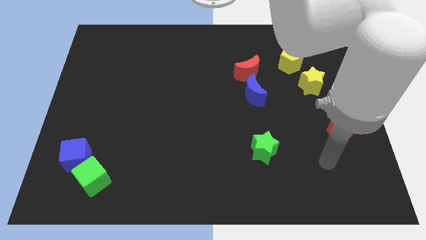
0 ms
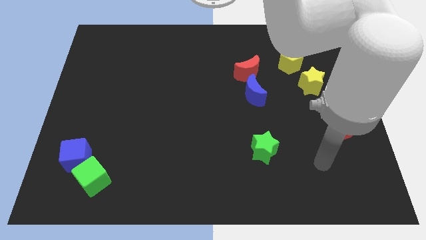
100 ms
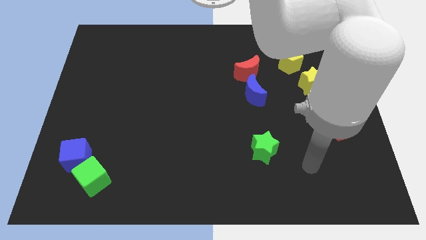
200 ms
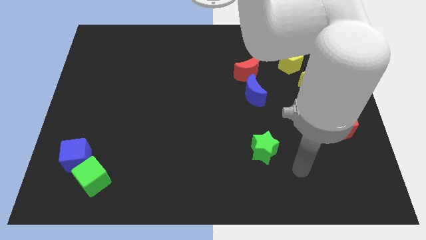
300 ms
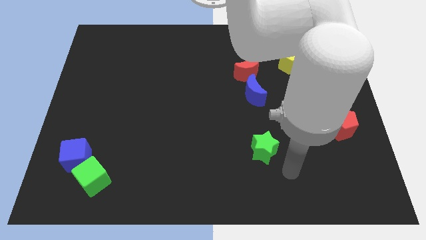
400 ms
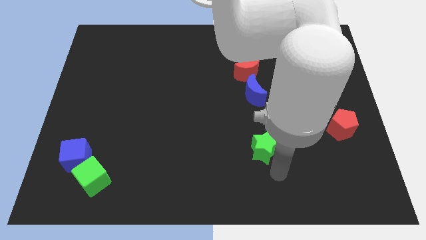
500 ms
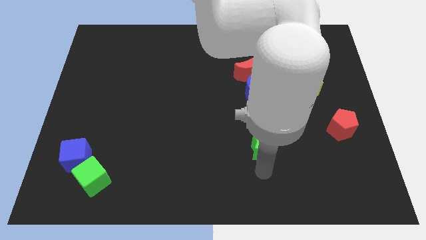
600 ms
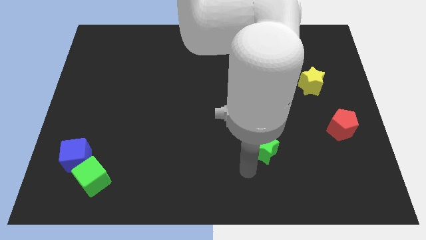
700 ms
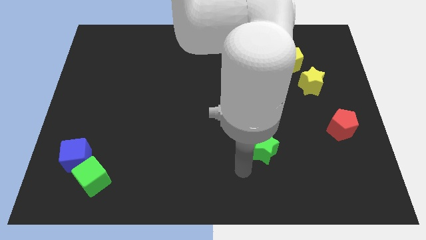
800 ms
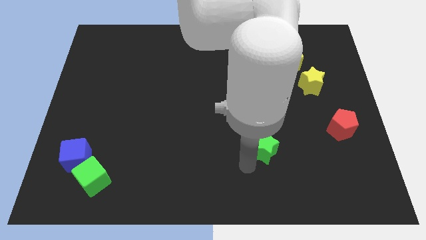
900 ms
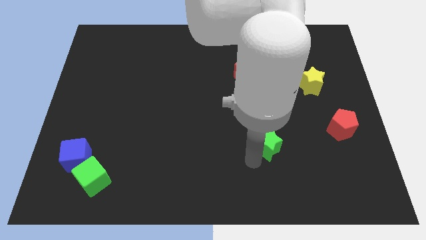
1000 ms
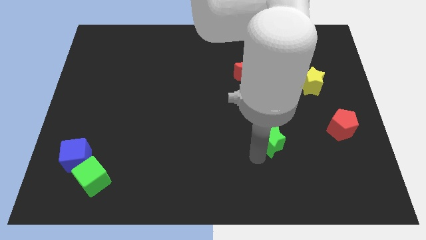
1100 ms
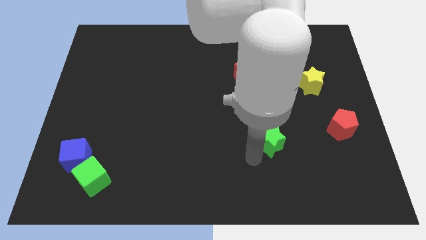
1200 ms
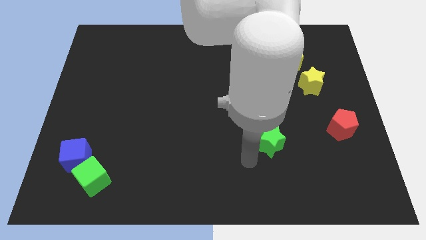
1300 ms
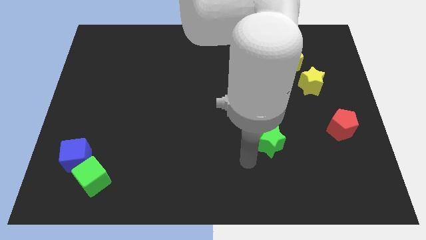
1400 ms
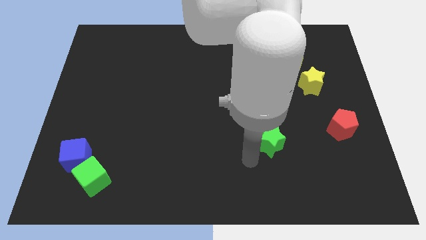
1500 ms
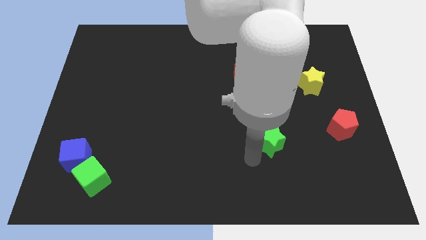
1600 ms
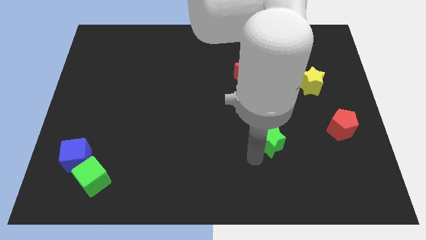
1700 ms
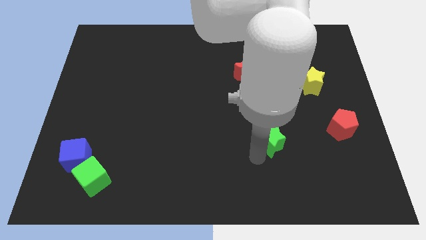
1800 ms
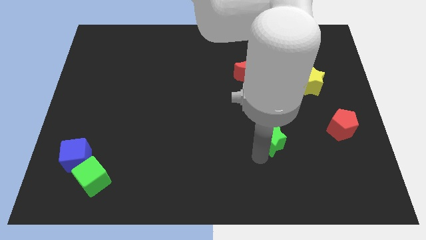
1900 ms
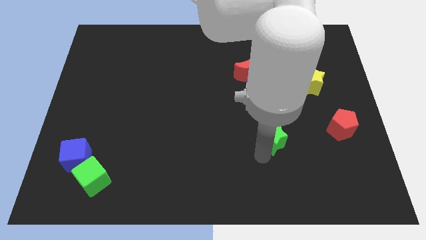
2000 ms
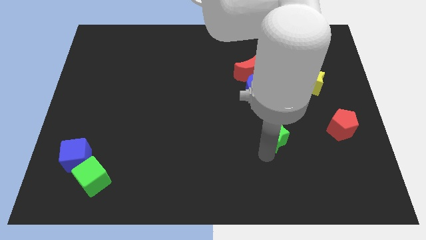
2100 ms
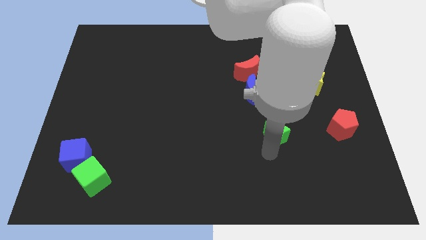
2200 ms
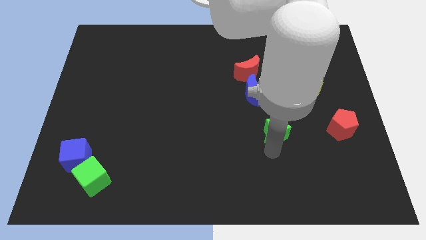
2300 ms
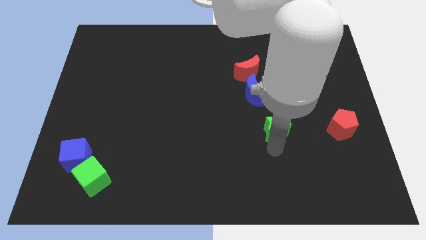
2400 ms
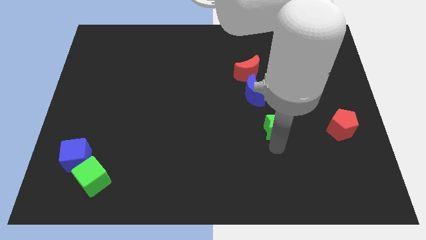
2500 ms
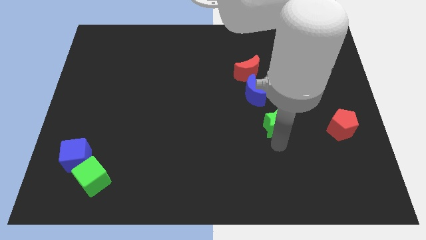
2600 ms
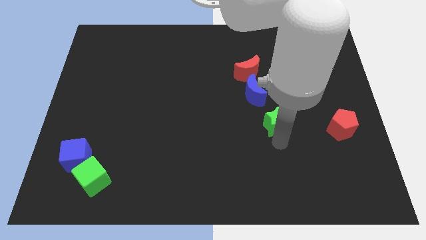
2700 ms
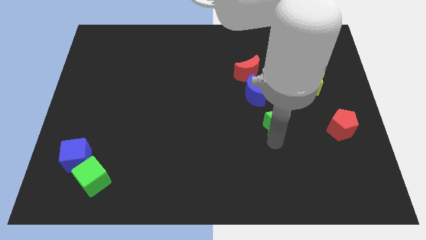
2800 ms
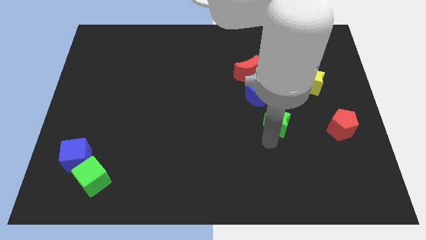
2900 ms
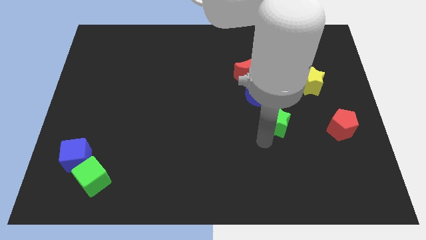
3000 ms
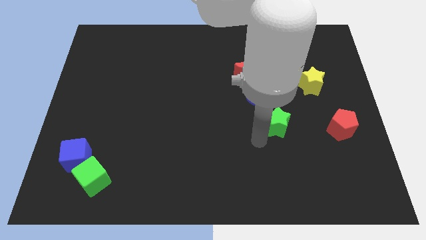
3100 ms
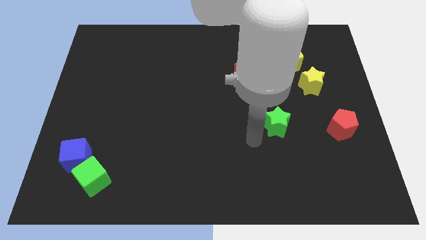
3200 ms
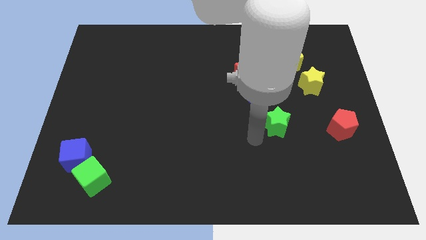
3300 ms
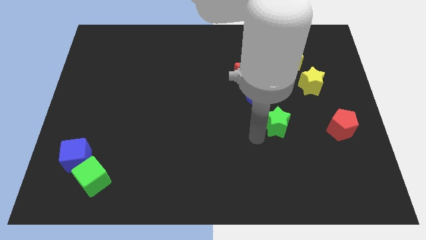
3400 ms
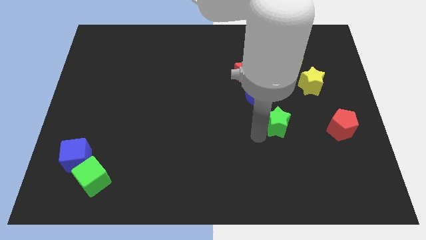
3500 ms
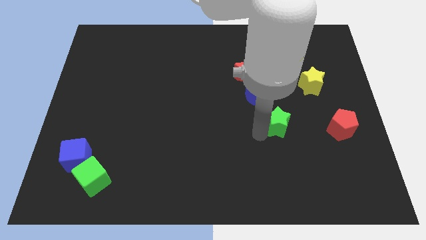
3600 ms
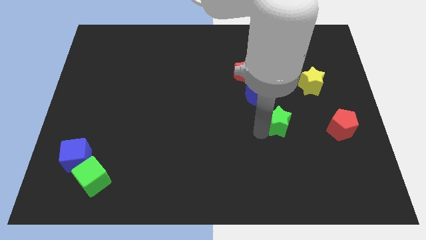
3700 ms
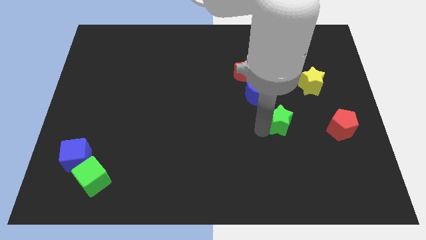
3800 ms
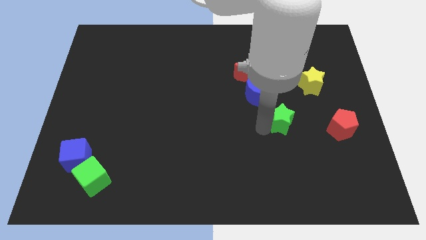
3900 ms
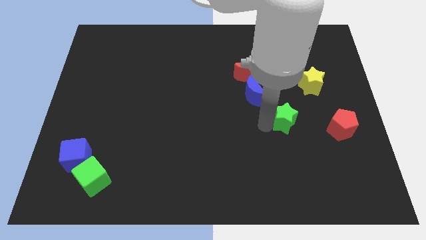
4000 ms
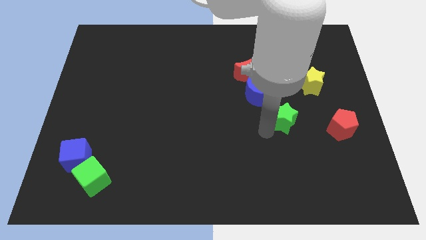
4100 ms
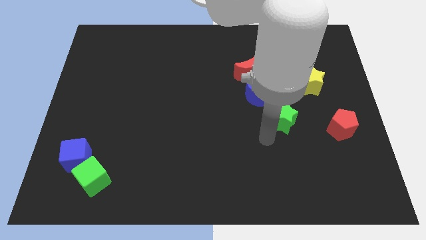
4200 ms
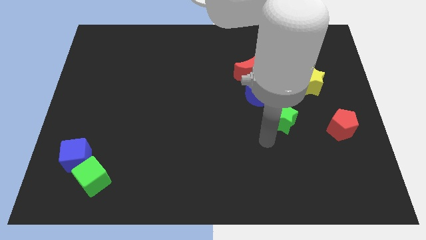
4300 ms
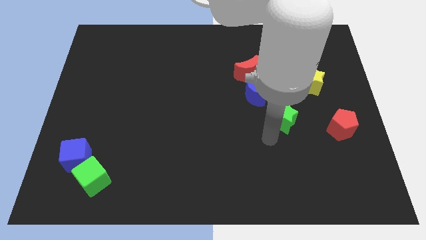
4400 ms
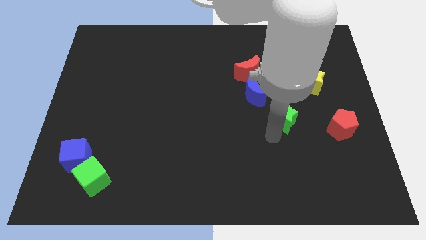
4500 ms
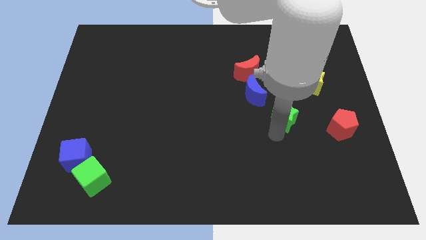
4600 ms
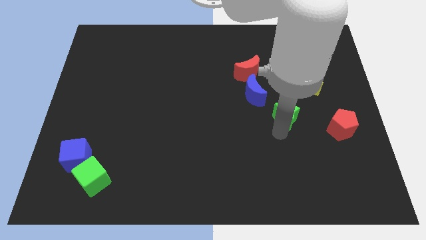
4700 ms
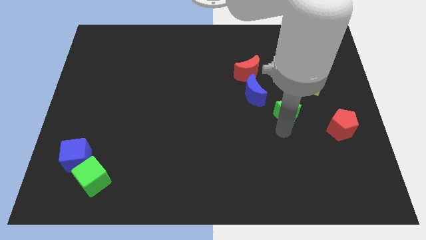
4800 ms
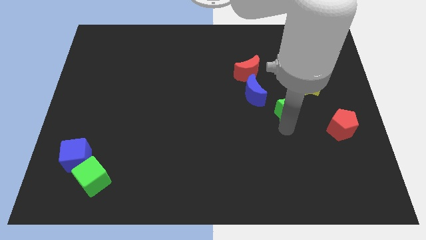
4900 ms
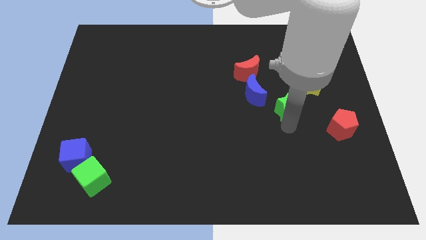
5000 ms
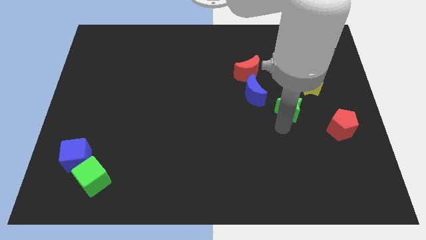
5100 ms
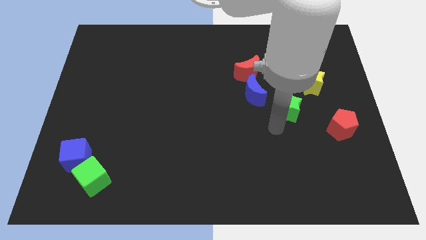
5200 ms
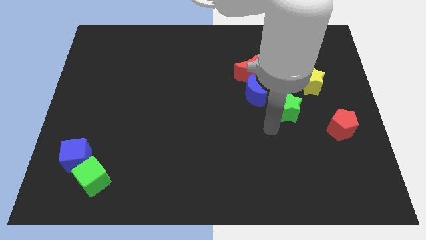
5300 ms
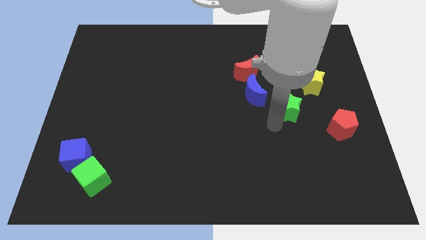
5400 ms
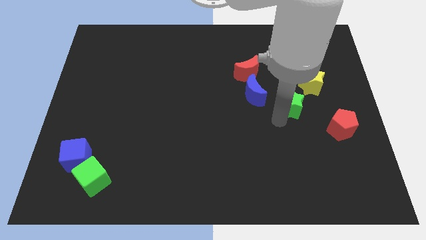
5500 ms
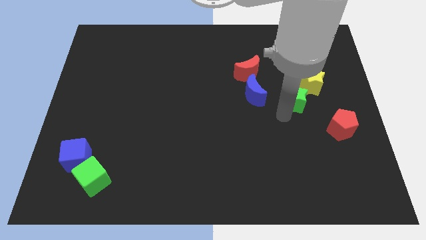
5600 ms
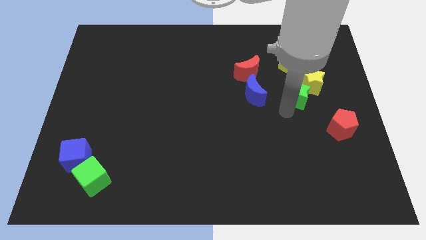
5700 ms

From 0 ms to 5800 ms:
push the green star to the yellow star
